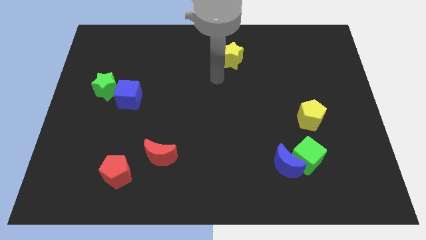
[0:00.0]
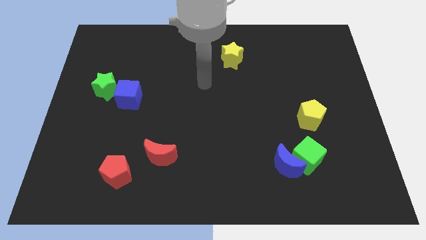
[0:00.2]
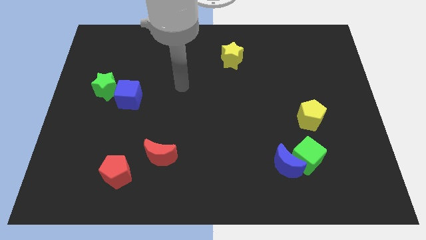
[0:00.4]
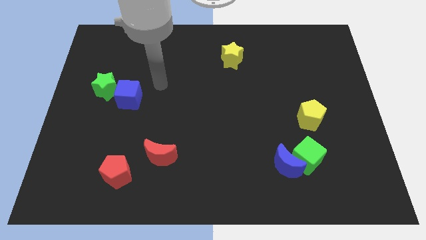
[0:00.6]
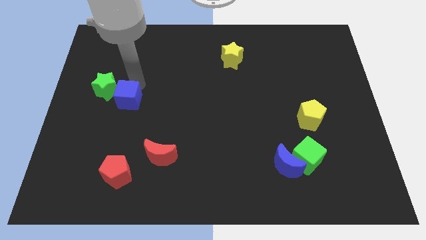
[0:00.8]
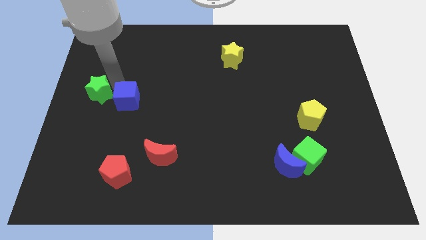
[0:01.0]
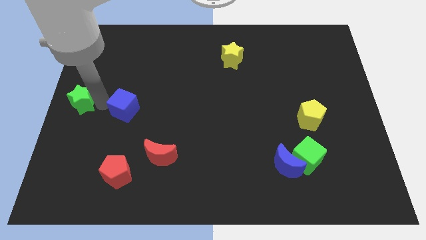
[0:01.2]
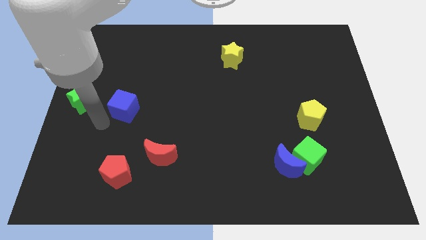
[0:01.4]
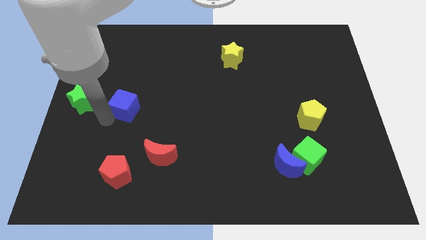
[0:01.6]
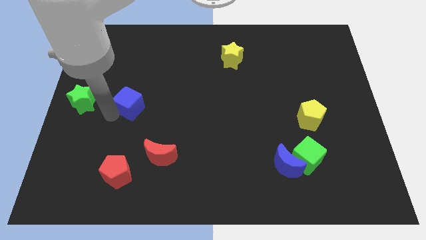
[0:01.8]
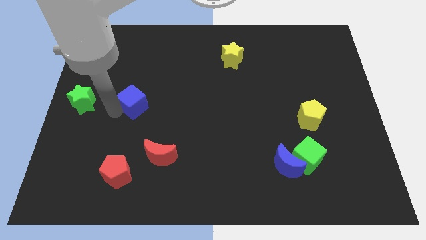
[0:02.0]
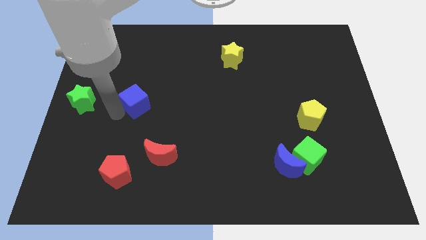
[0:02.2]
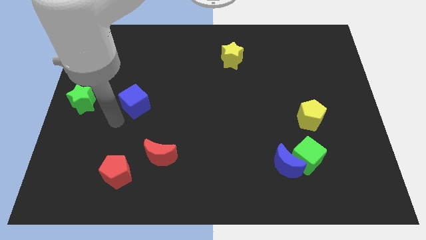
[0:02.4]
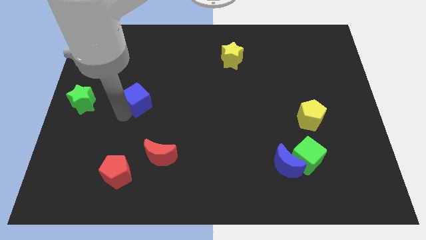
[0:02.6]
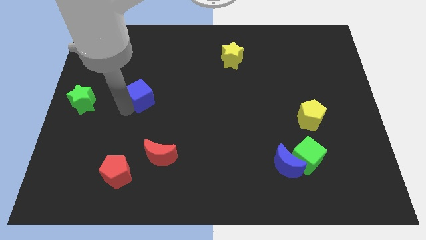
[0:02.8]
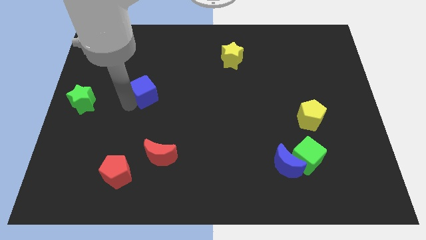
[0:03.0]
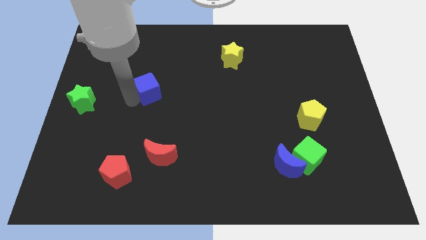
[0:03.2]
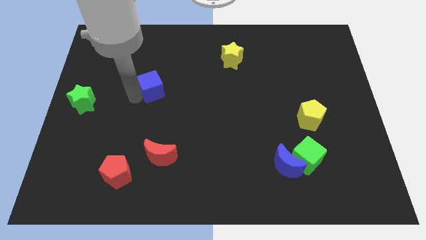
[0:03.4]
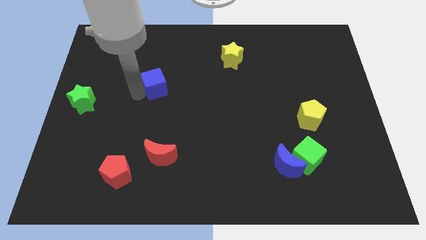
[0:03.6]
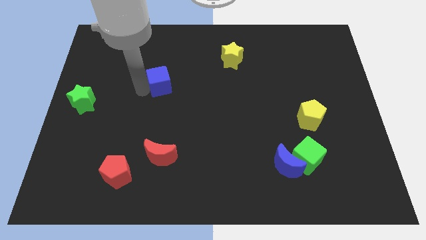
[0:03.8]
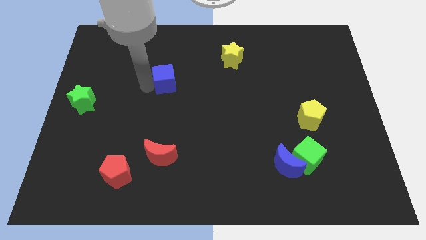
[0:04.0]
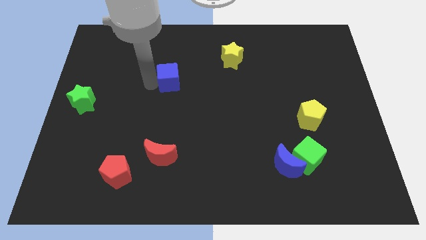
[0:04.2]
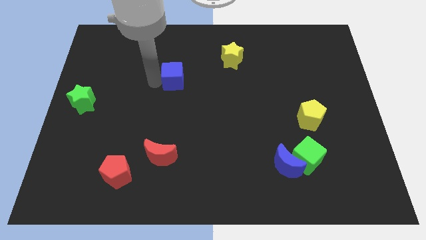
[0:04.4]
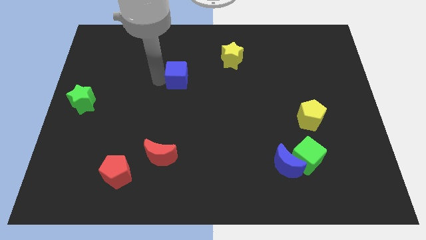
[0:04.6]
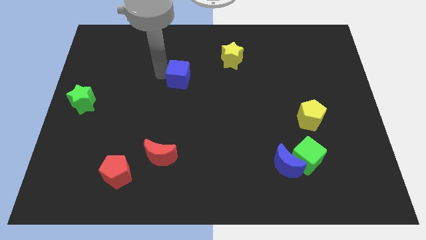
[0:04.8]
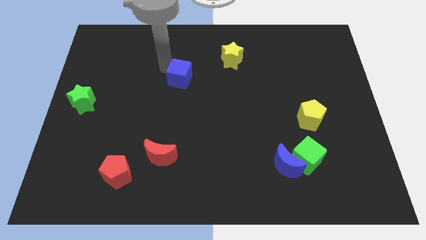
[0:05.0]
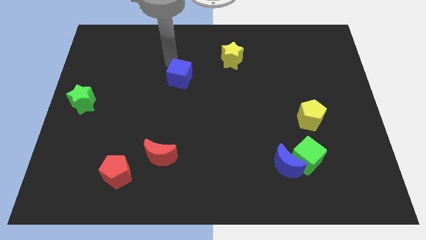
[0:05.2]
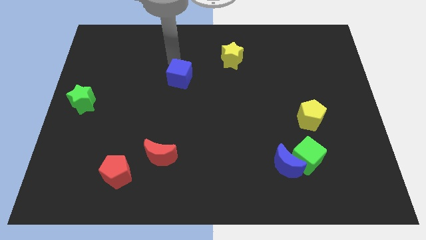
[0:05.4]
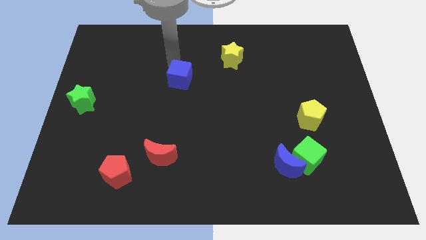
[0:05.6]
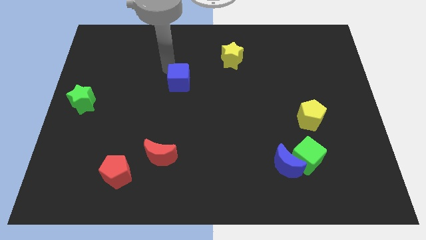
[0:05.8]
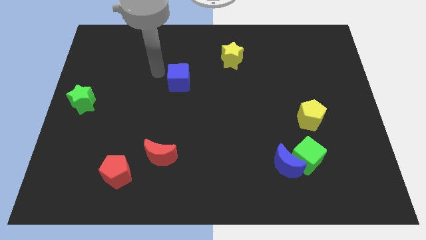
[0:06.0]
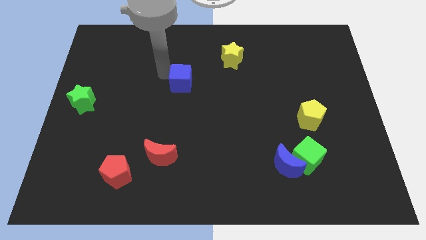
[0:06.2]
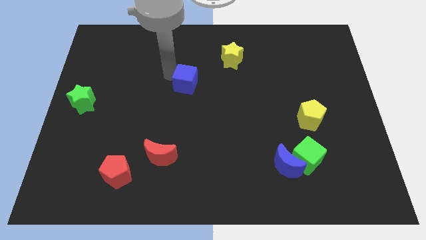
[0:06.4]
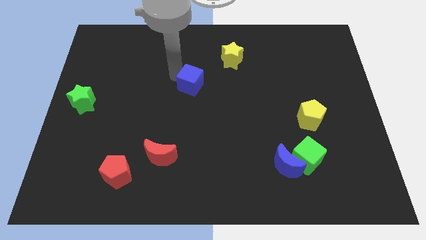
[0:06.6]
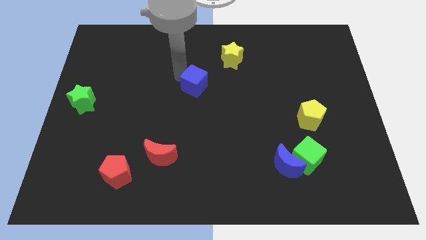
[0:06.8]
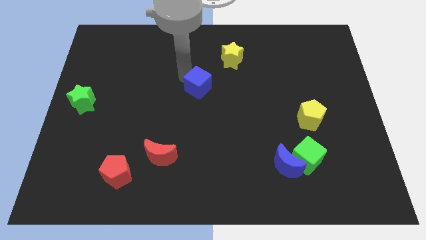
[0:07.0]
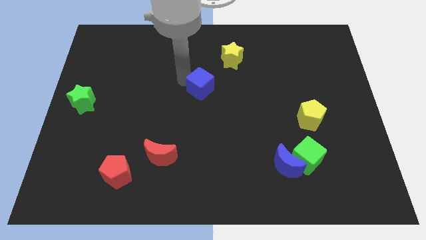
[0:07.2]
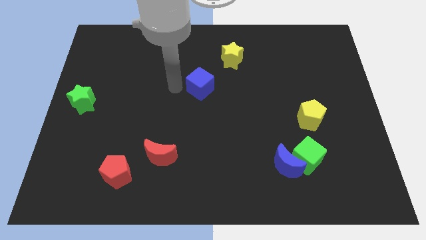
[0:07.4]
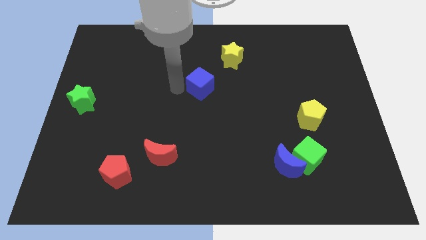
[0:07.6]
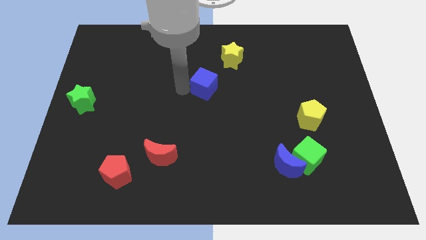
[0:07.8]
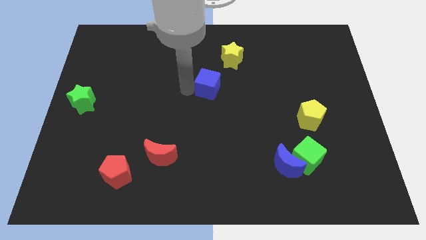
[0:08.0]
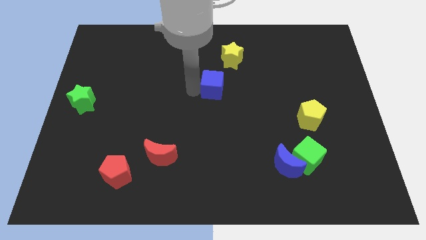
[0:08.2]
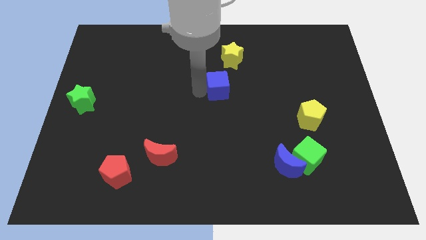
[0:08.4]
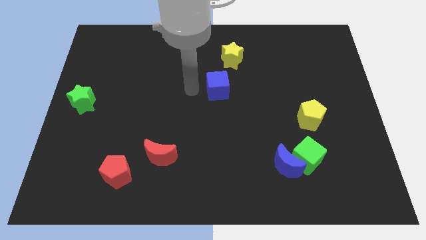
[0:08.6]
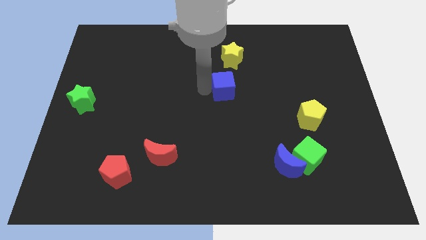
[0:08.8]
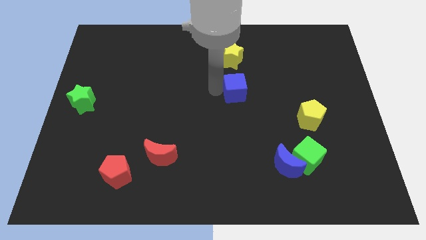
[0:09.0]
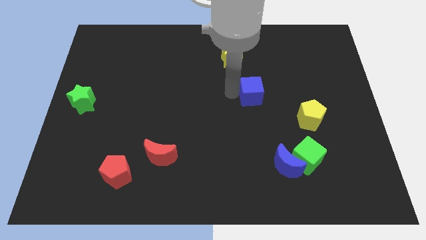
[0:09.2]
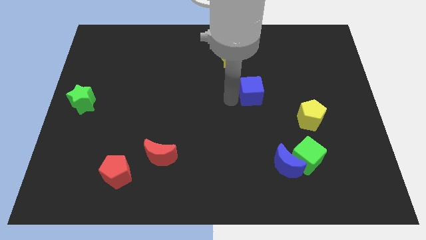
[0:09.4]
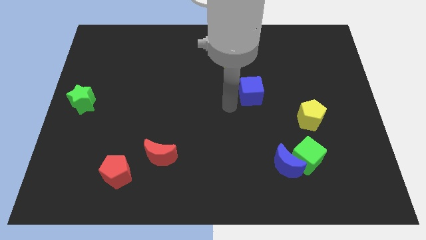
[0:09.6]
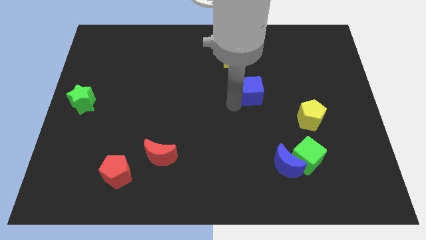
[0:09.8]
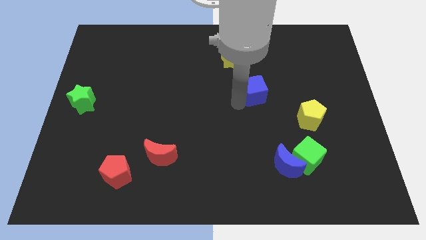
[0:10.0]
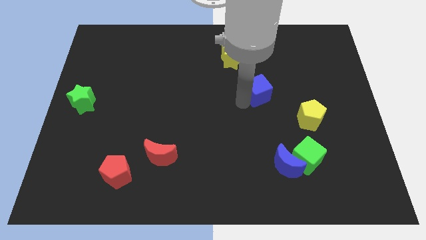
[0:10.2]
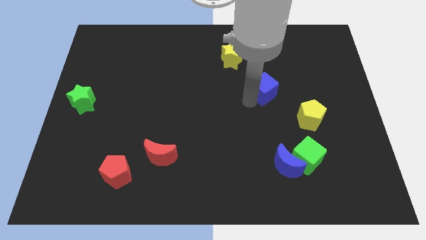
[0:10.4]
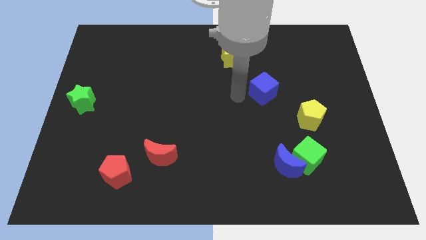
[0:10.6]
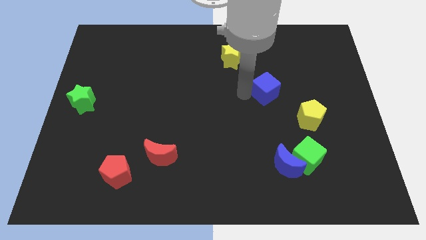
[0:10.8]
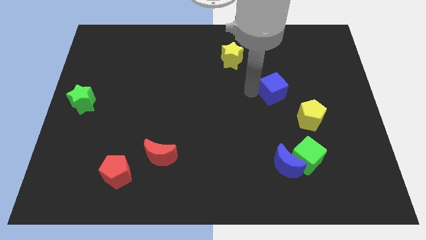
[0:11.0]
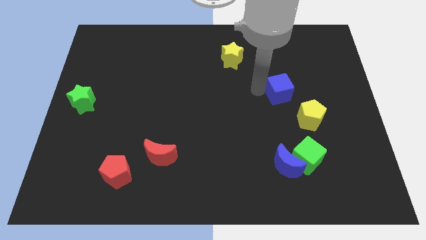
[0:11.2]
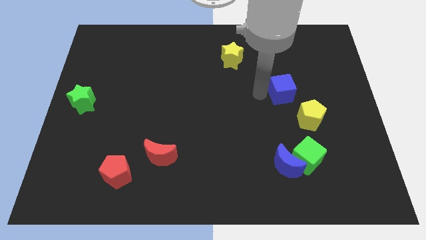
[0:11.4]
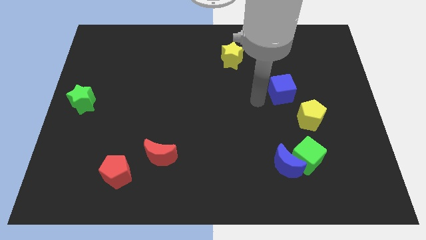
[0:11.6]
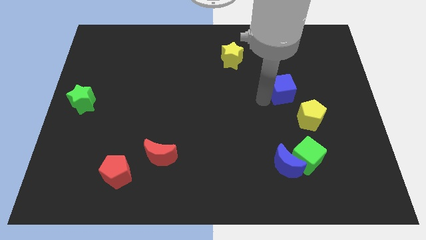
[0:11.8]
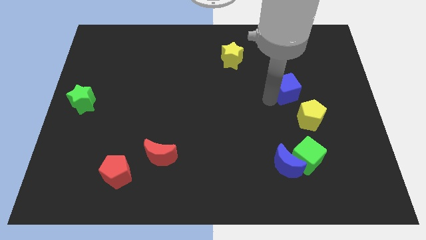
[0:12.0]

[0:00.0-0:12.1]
push the blue cube to the top side of the yellow pentagon

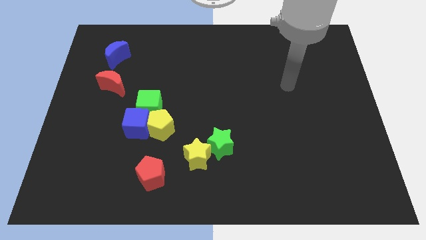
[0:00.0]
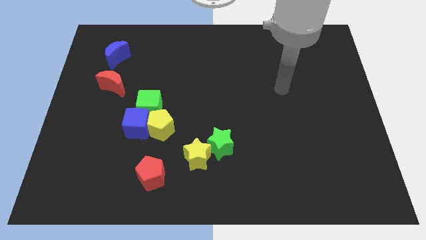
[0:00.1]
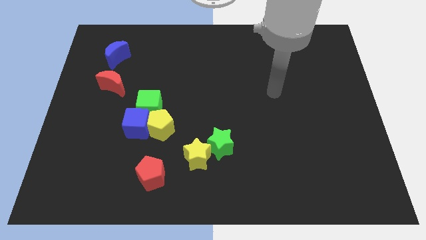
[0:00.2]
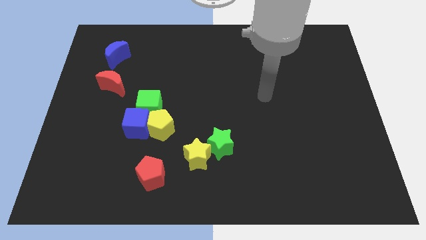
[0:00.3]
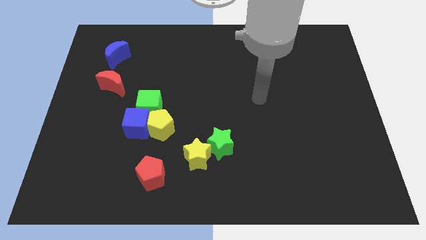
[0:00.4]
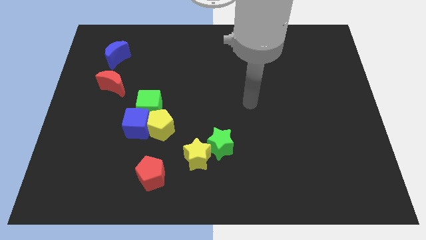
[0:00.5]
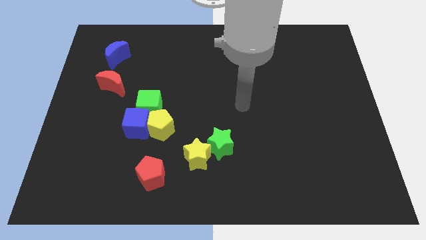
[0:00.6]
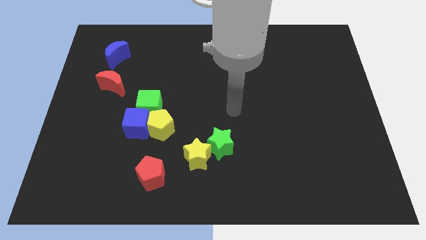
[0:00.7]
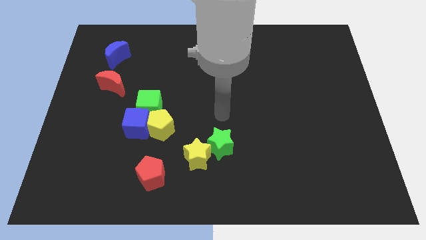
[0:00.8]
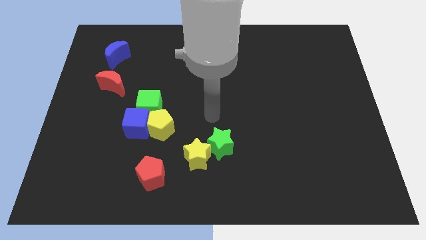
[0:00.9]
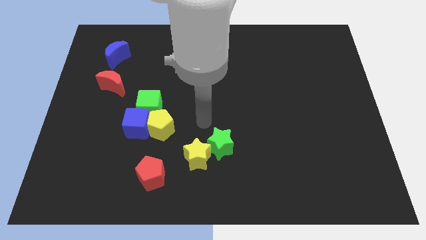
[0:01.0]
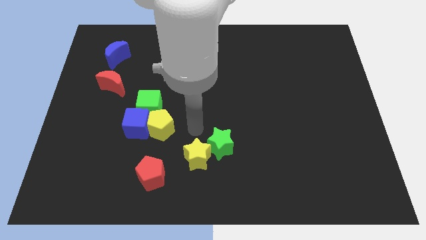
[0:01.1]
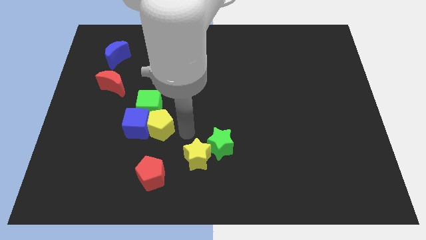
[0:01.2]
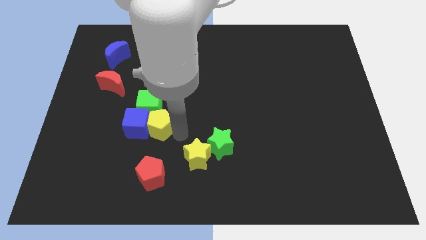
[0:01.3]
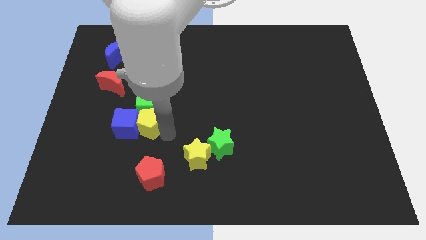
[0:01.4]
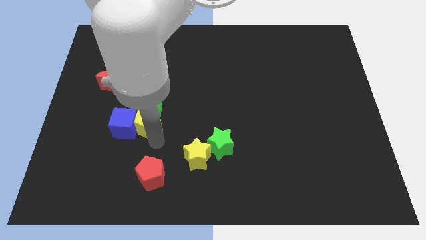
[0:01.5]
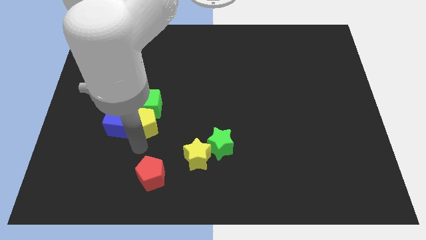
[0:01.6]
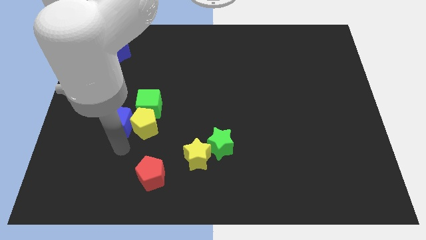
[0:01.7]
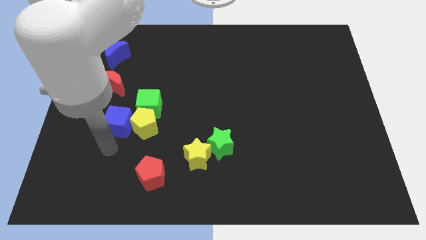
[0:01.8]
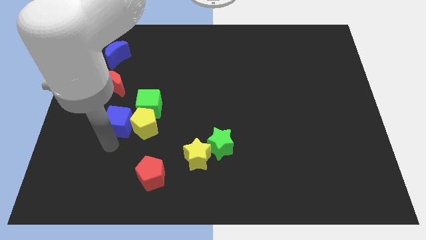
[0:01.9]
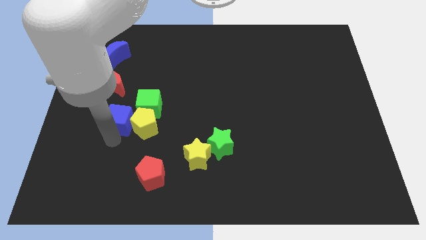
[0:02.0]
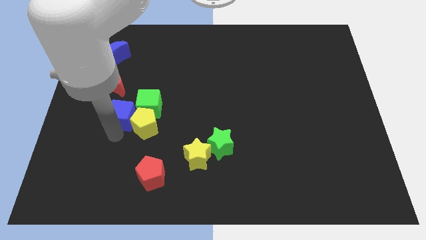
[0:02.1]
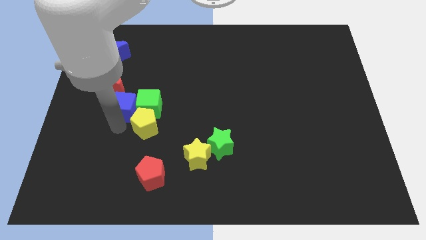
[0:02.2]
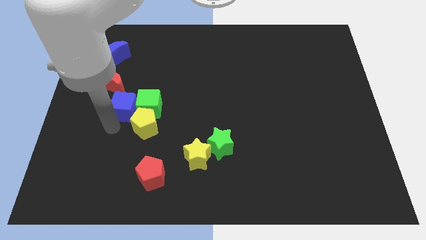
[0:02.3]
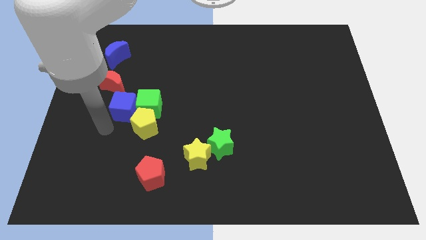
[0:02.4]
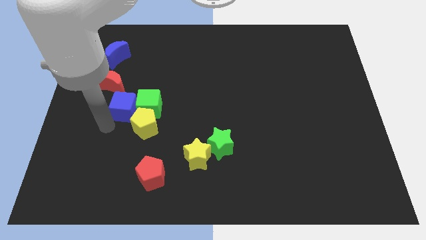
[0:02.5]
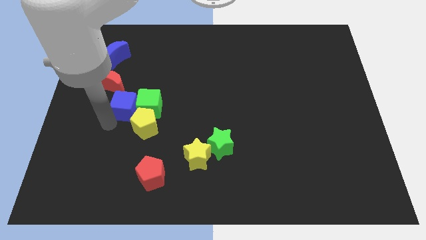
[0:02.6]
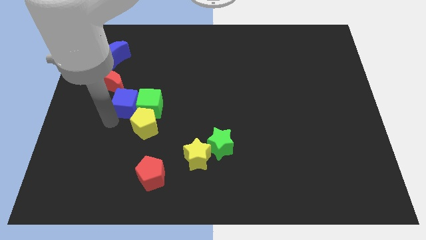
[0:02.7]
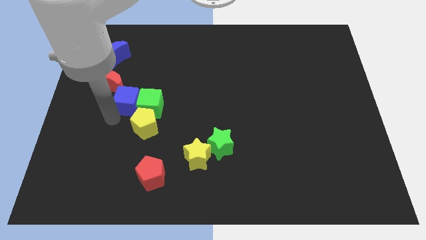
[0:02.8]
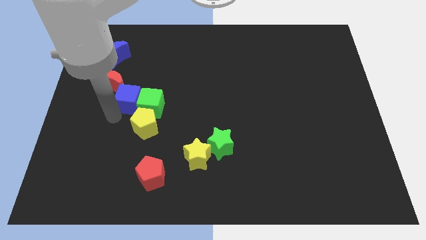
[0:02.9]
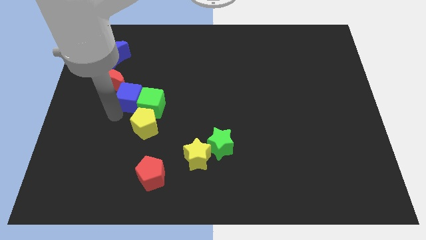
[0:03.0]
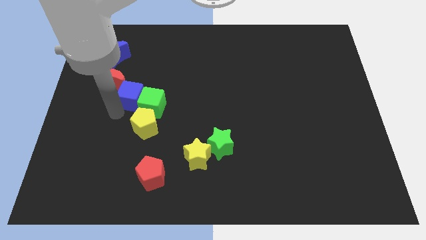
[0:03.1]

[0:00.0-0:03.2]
push the blue cube just right of the red moon
